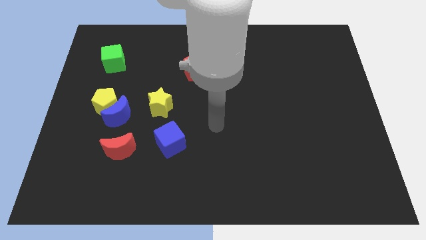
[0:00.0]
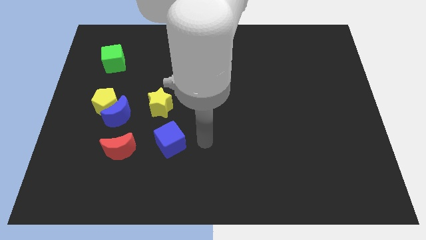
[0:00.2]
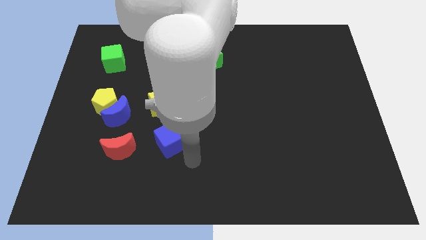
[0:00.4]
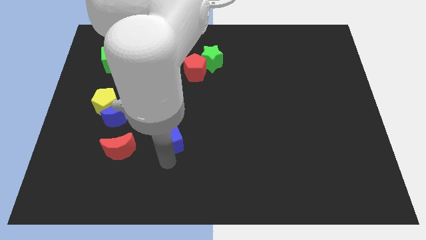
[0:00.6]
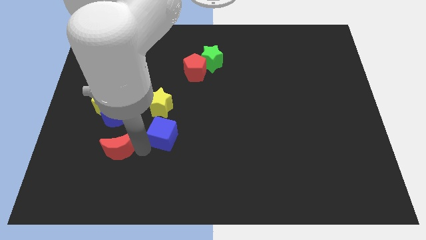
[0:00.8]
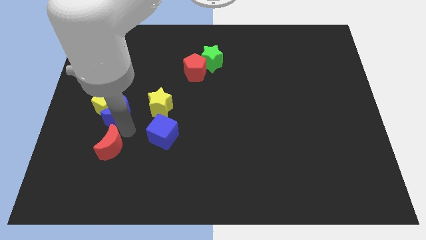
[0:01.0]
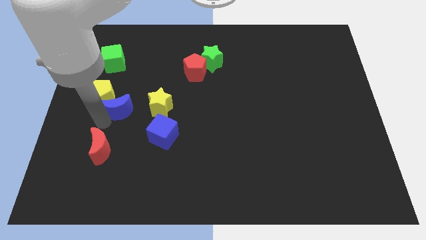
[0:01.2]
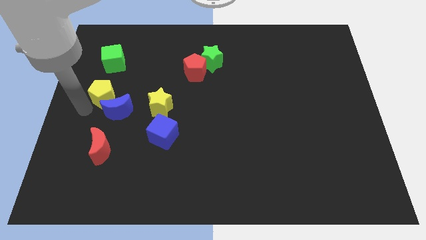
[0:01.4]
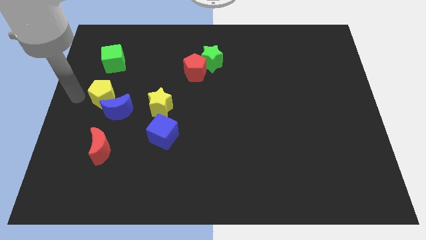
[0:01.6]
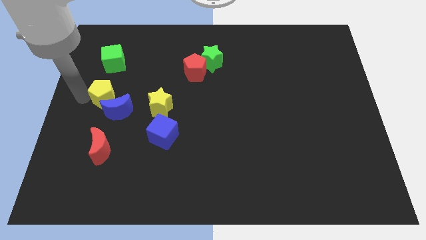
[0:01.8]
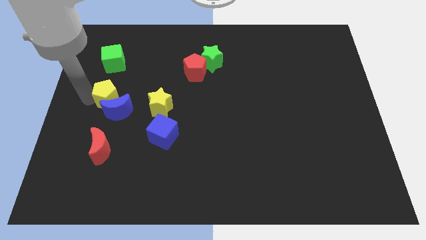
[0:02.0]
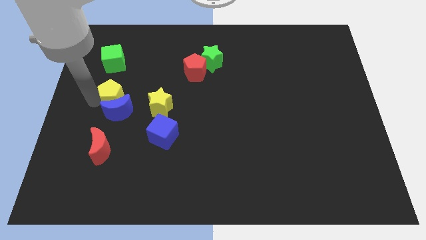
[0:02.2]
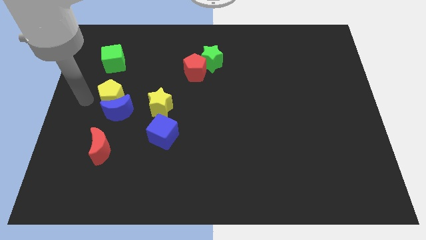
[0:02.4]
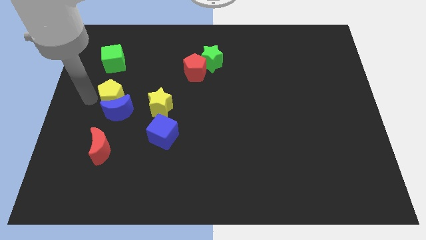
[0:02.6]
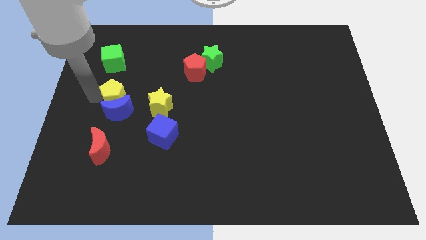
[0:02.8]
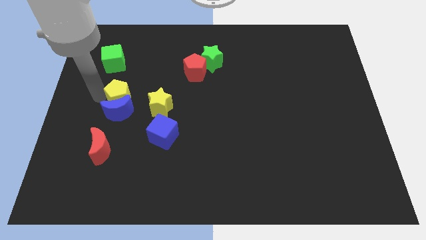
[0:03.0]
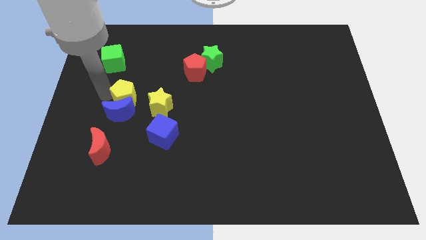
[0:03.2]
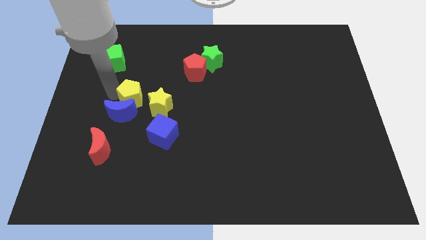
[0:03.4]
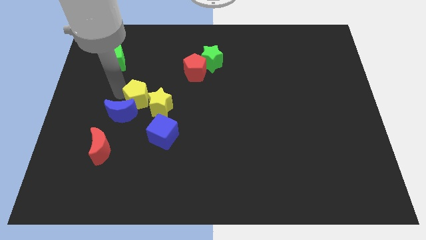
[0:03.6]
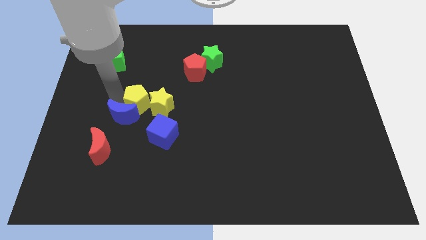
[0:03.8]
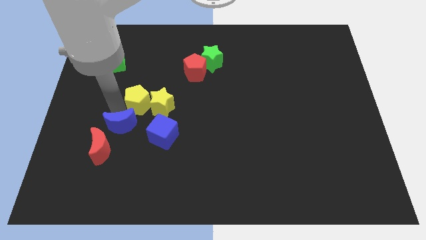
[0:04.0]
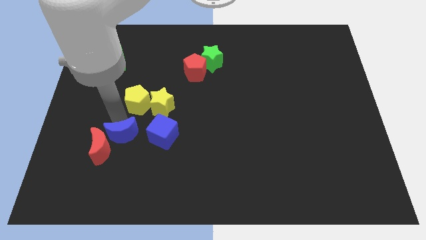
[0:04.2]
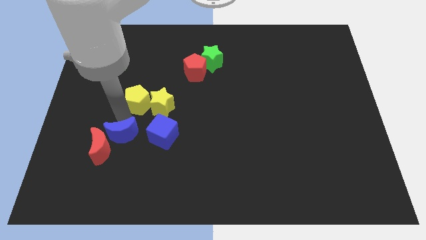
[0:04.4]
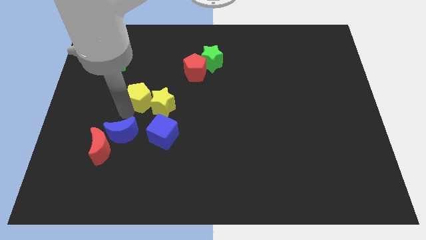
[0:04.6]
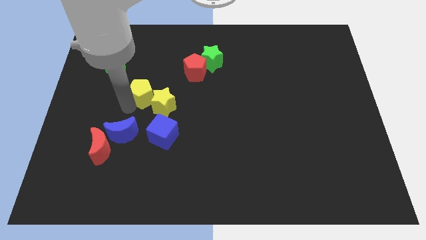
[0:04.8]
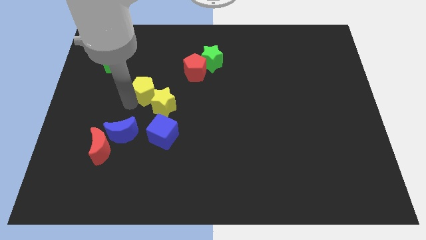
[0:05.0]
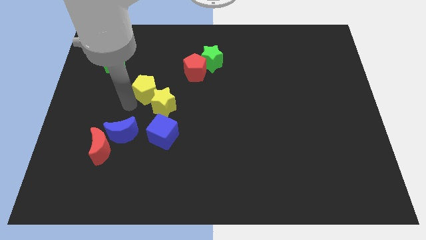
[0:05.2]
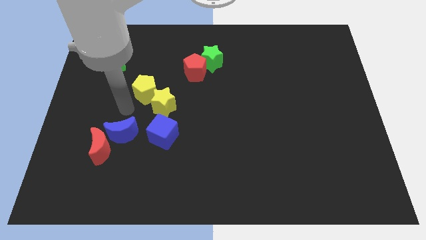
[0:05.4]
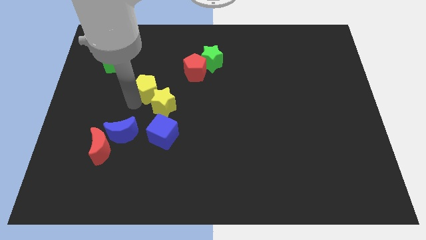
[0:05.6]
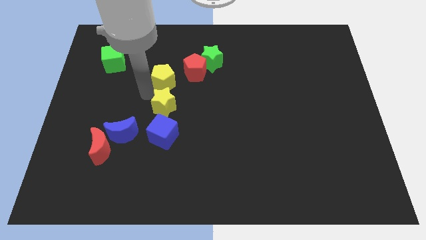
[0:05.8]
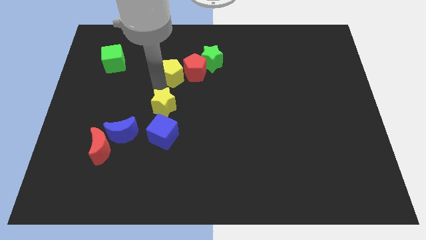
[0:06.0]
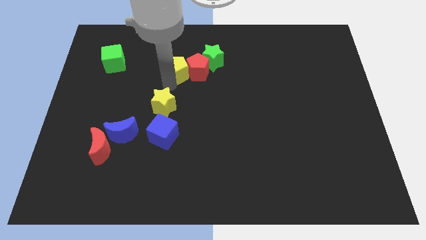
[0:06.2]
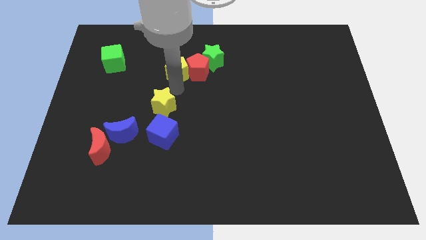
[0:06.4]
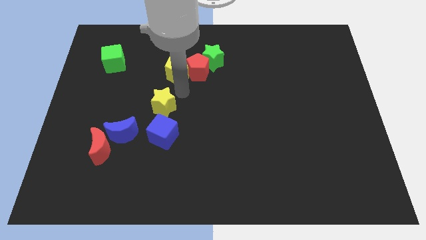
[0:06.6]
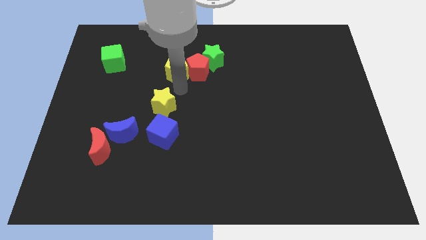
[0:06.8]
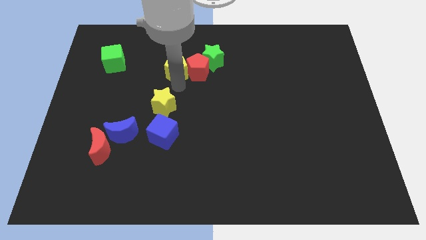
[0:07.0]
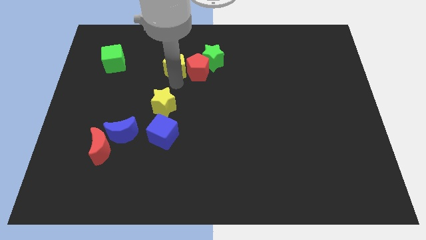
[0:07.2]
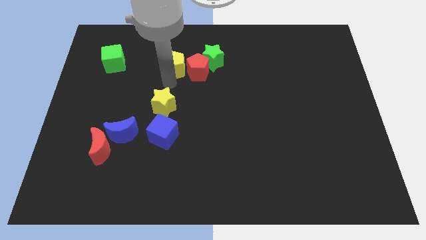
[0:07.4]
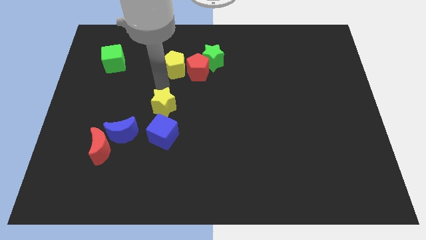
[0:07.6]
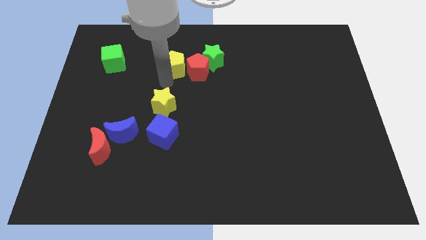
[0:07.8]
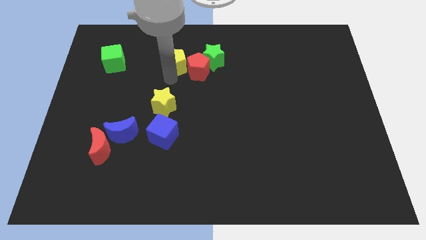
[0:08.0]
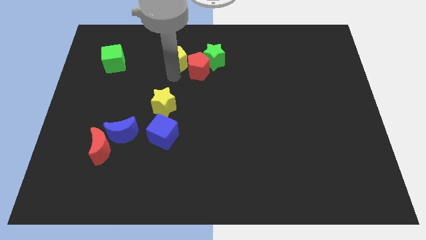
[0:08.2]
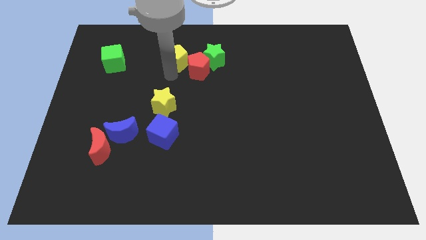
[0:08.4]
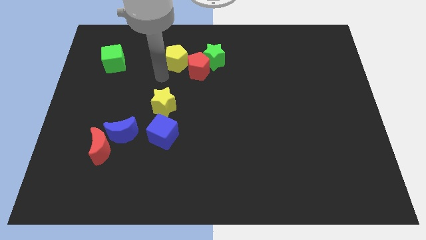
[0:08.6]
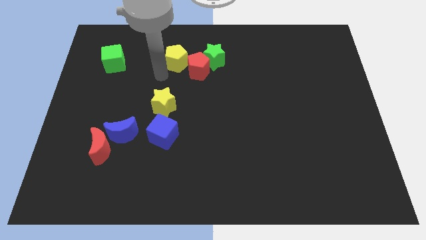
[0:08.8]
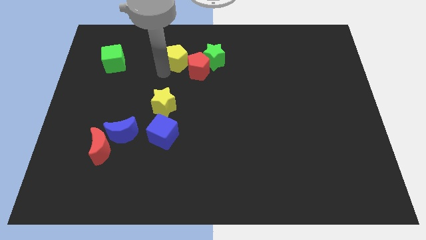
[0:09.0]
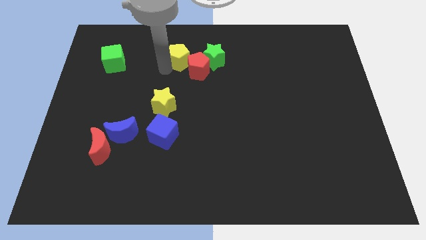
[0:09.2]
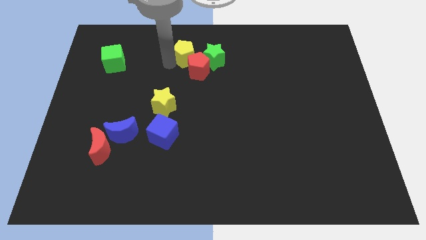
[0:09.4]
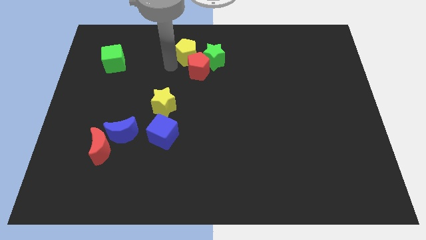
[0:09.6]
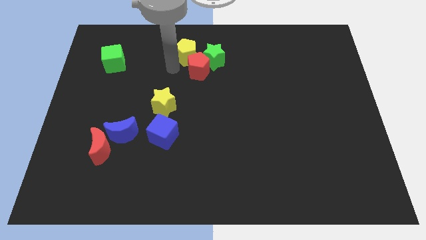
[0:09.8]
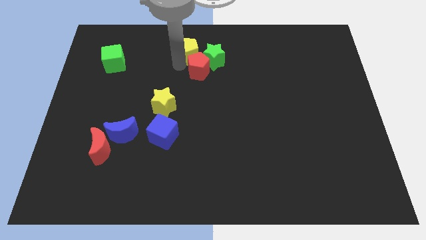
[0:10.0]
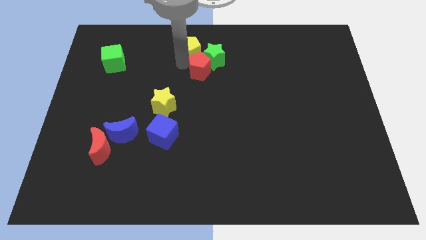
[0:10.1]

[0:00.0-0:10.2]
slide the yellow pentagon to the top side

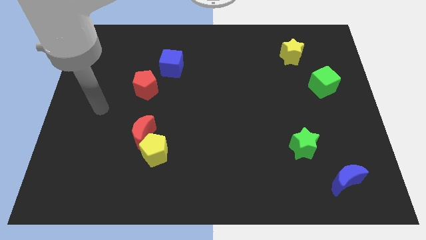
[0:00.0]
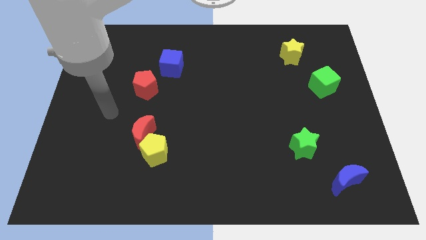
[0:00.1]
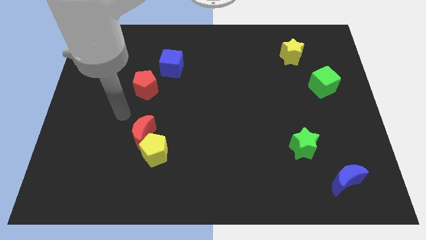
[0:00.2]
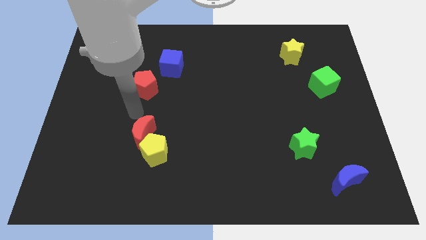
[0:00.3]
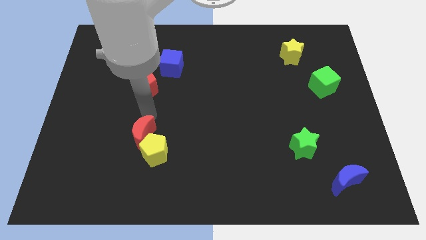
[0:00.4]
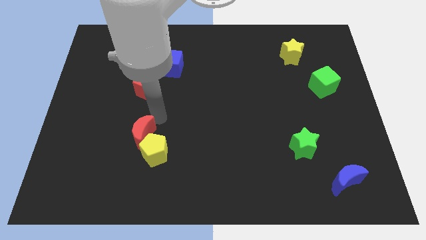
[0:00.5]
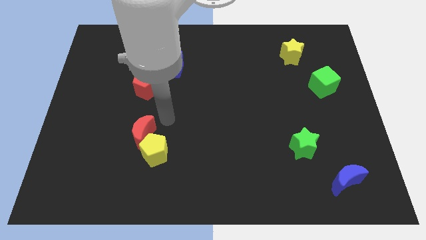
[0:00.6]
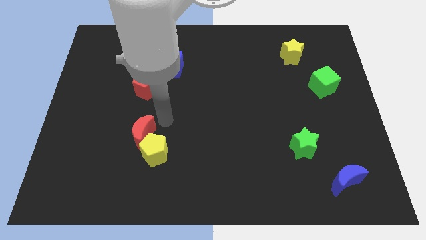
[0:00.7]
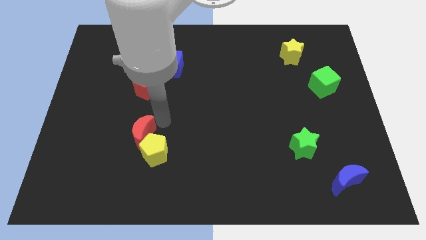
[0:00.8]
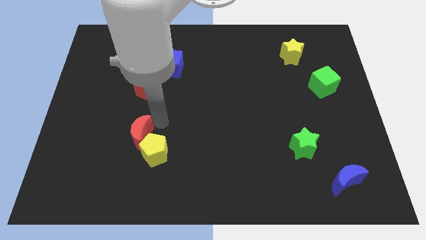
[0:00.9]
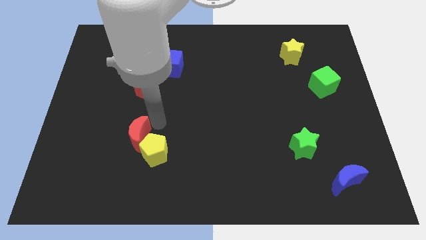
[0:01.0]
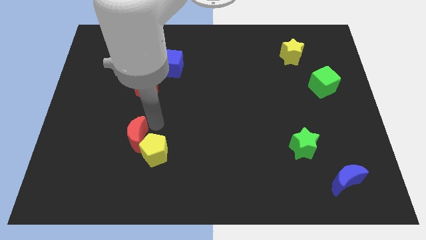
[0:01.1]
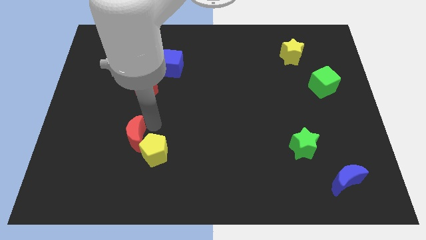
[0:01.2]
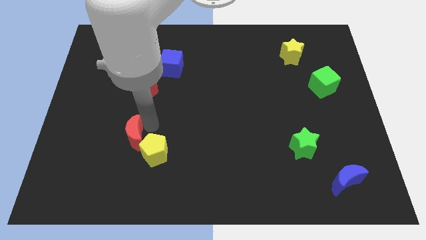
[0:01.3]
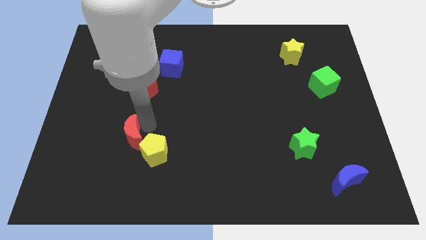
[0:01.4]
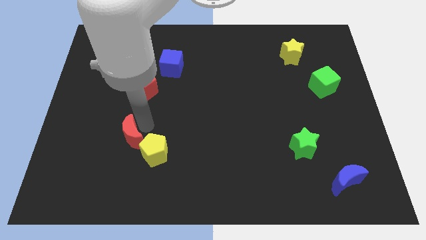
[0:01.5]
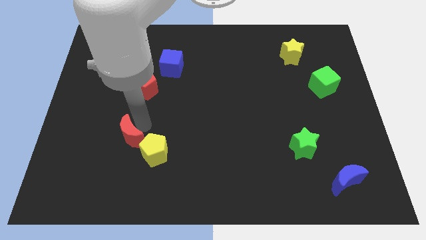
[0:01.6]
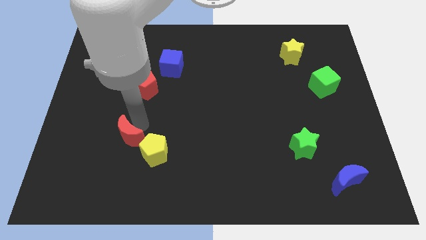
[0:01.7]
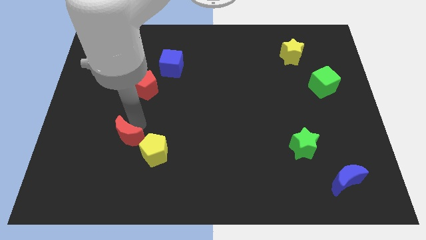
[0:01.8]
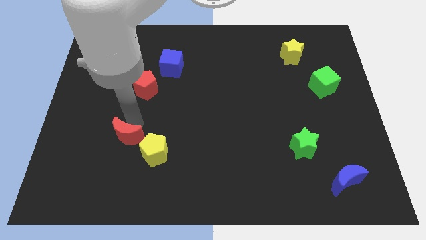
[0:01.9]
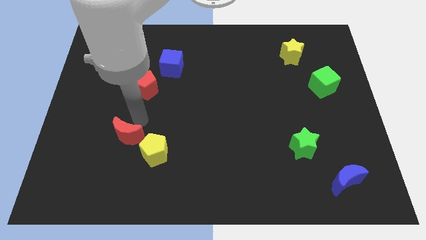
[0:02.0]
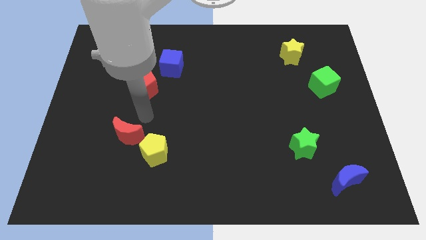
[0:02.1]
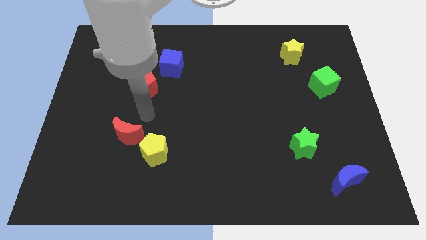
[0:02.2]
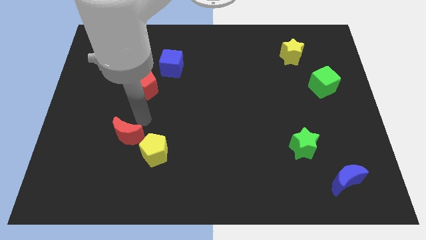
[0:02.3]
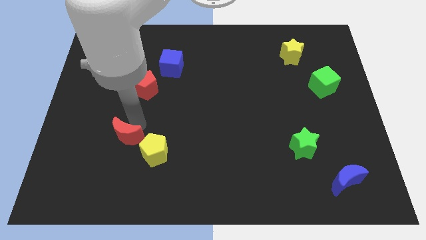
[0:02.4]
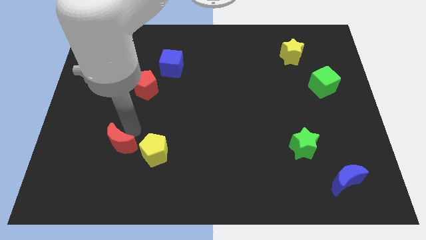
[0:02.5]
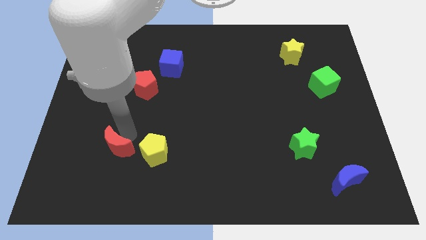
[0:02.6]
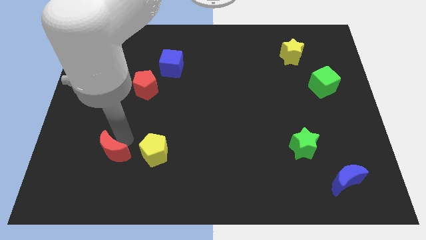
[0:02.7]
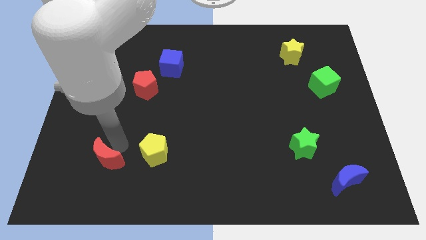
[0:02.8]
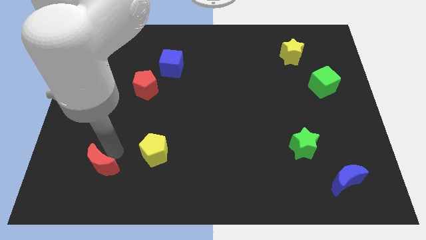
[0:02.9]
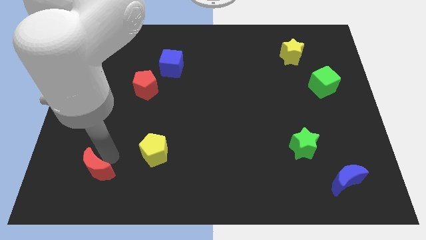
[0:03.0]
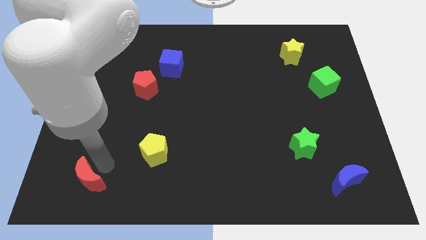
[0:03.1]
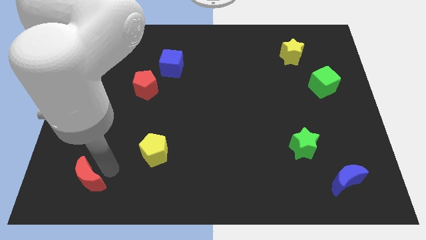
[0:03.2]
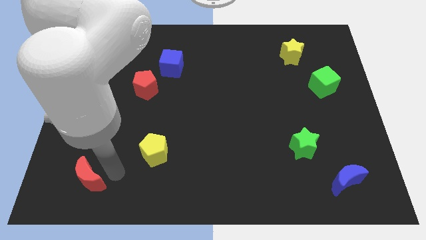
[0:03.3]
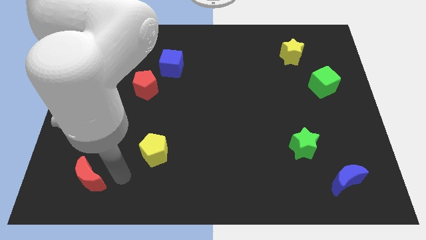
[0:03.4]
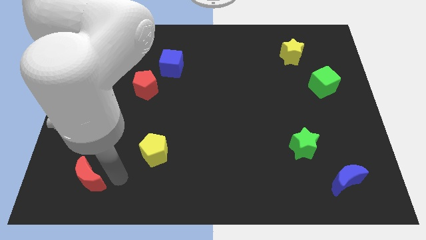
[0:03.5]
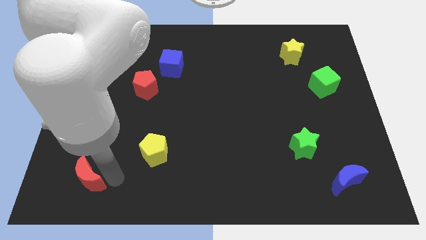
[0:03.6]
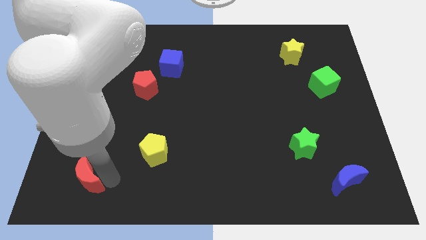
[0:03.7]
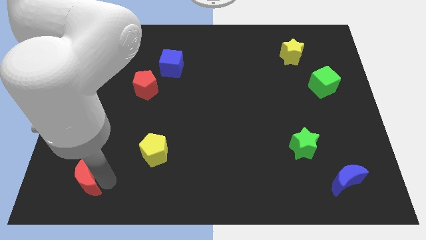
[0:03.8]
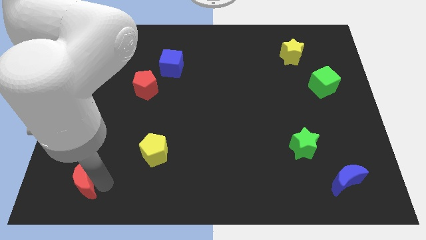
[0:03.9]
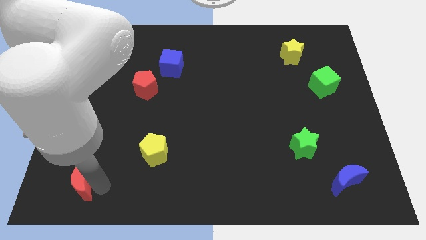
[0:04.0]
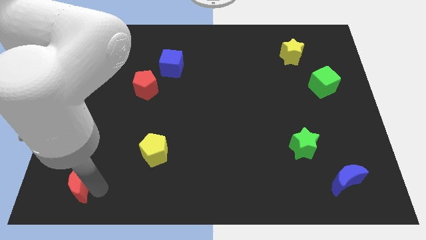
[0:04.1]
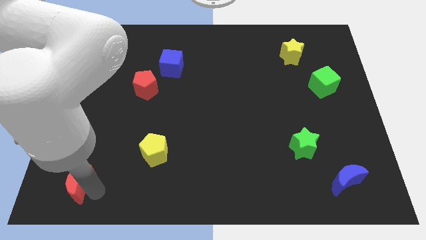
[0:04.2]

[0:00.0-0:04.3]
slide the red moon to the bottom left
